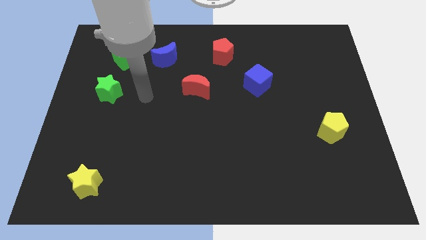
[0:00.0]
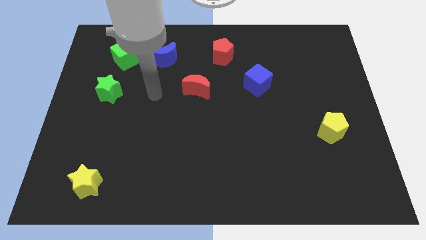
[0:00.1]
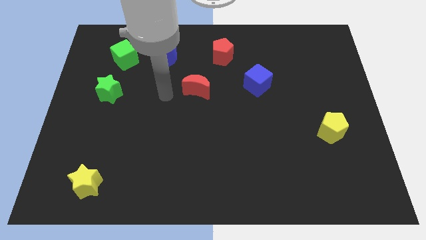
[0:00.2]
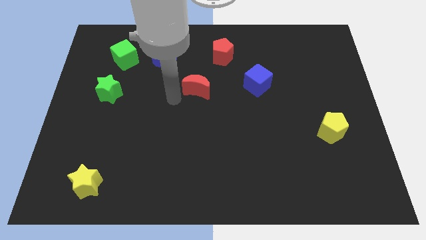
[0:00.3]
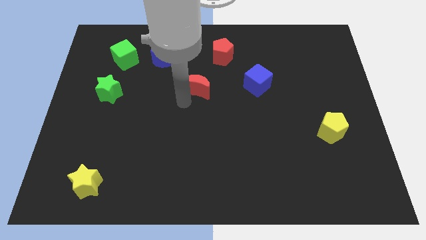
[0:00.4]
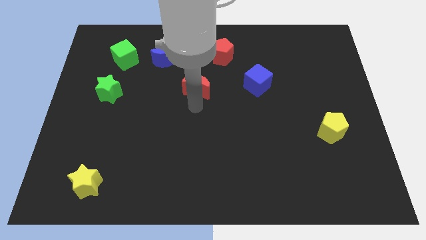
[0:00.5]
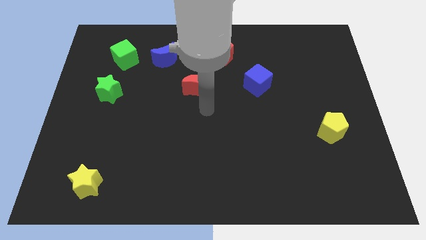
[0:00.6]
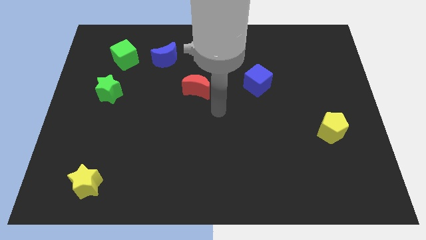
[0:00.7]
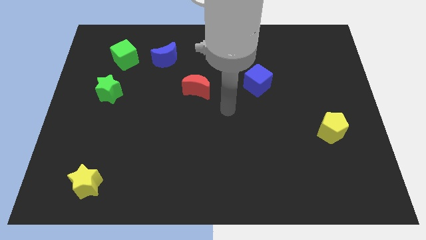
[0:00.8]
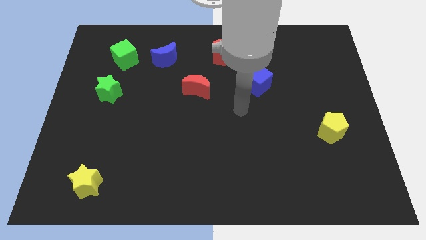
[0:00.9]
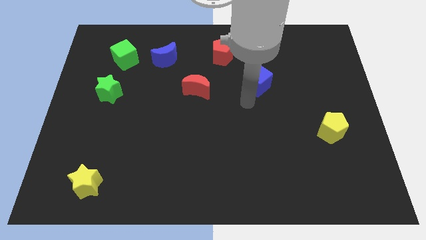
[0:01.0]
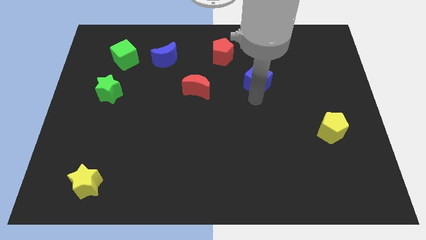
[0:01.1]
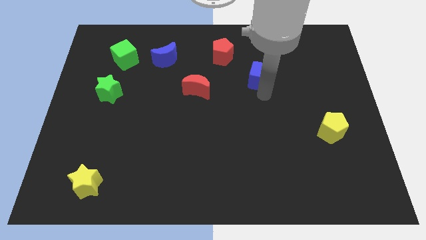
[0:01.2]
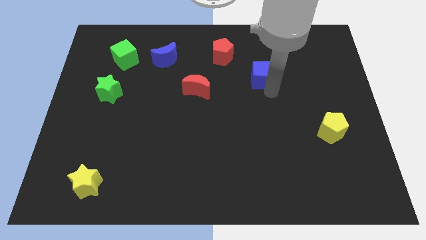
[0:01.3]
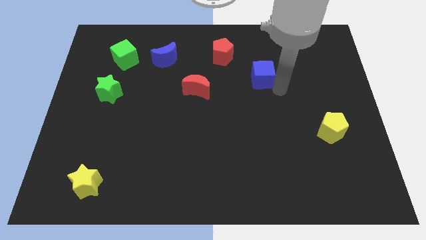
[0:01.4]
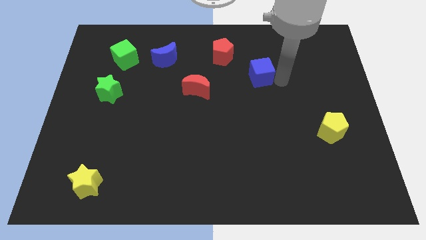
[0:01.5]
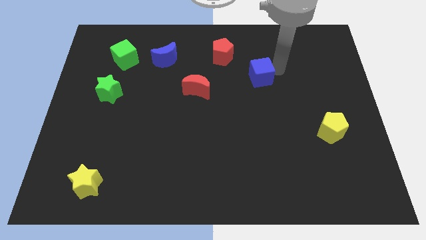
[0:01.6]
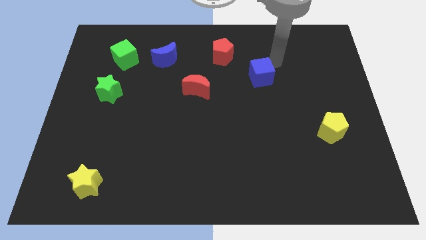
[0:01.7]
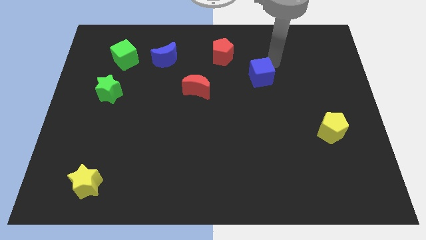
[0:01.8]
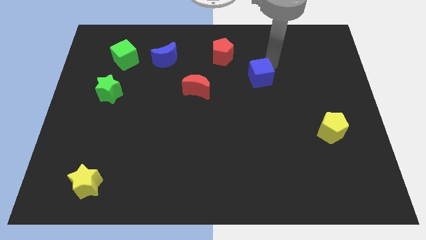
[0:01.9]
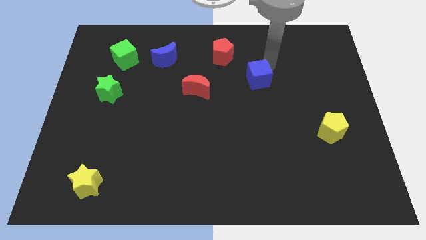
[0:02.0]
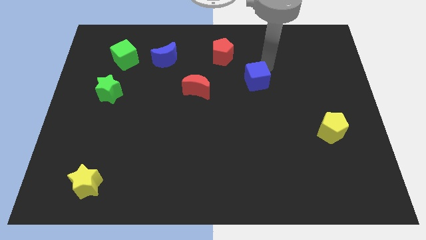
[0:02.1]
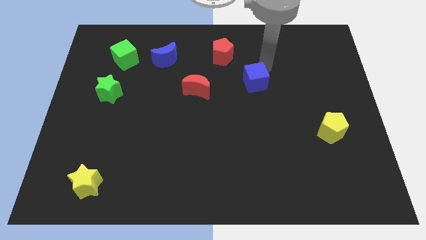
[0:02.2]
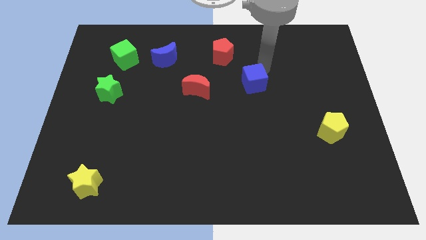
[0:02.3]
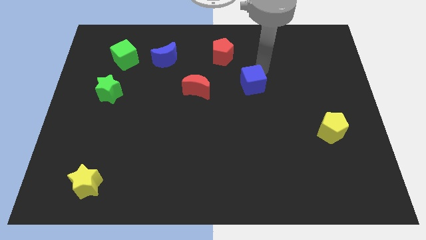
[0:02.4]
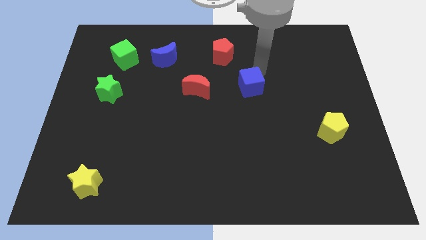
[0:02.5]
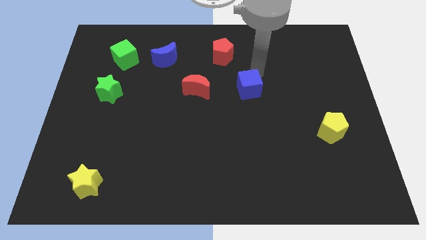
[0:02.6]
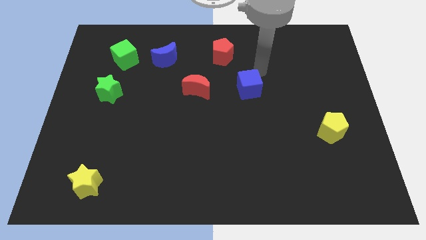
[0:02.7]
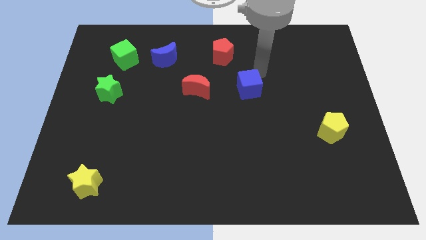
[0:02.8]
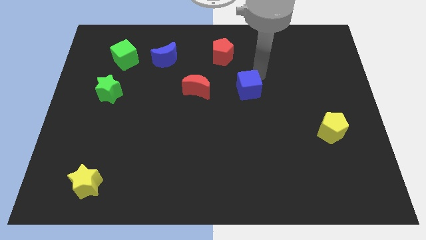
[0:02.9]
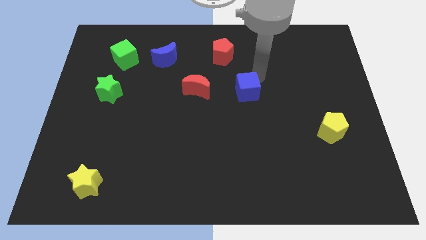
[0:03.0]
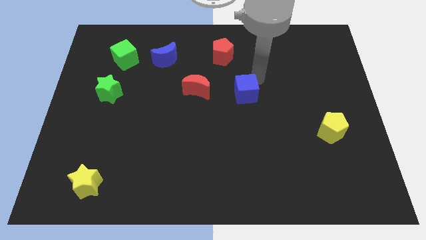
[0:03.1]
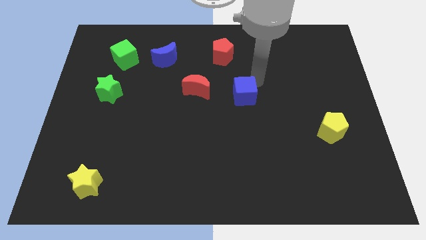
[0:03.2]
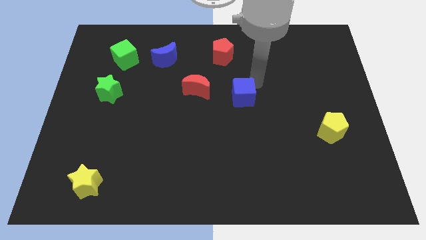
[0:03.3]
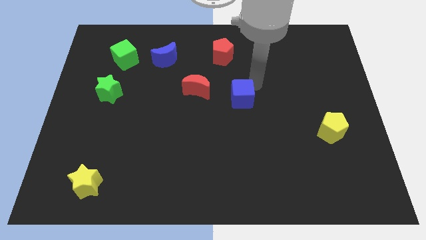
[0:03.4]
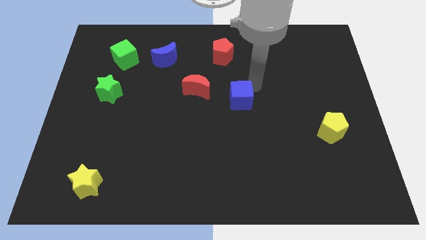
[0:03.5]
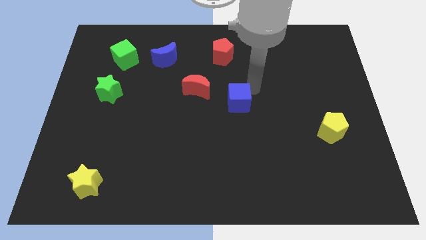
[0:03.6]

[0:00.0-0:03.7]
slightly move the blue cube downwards and left

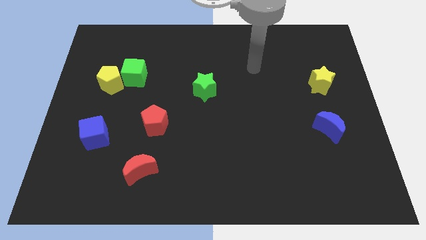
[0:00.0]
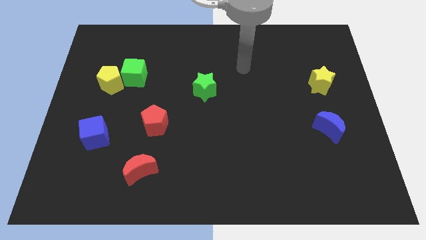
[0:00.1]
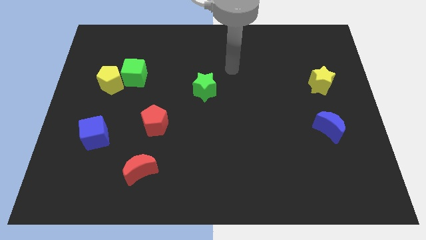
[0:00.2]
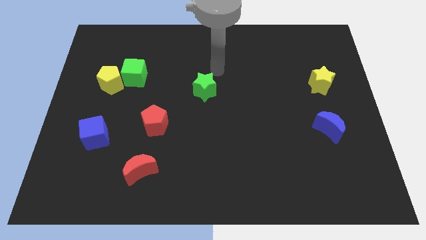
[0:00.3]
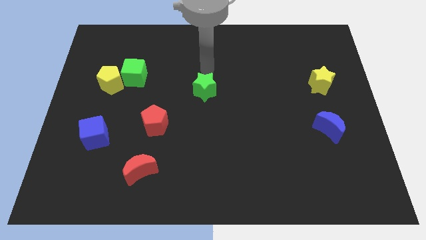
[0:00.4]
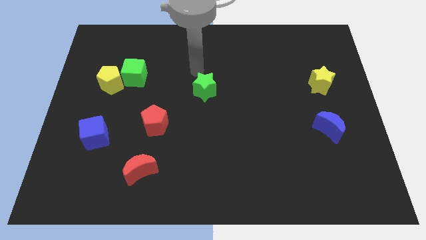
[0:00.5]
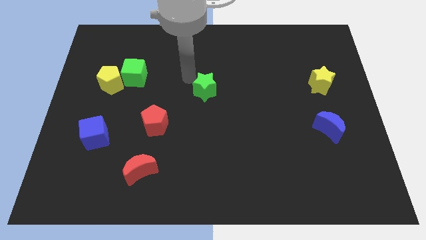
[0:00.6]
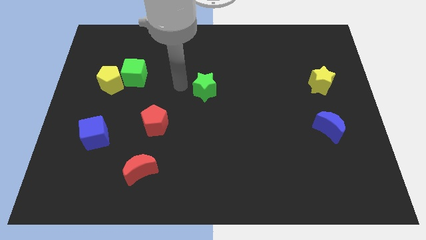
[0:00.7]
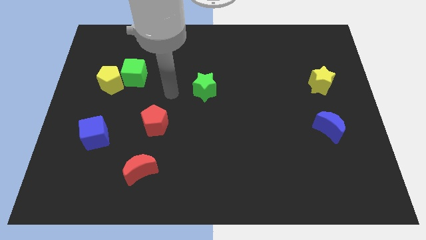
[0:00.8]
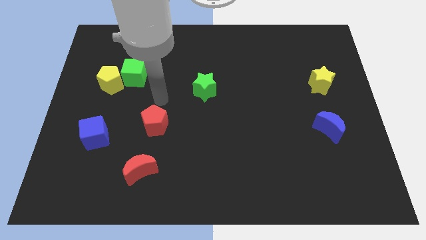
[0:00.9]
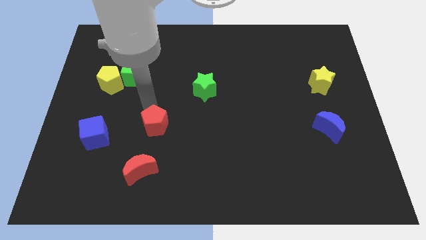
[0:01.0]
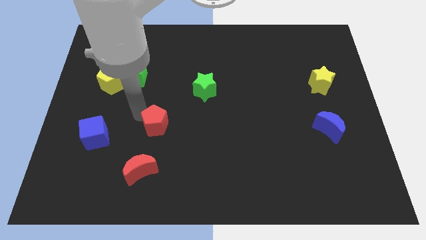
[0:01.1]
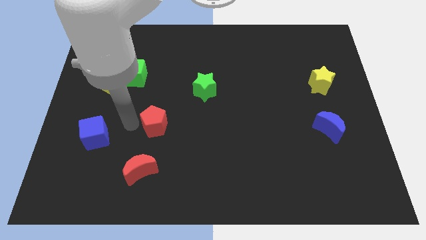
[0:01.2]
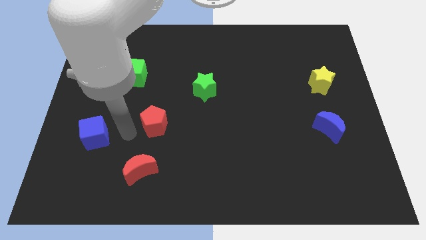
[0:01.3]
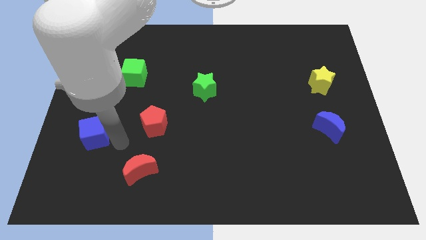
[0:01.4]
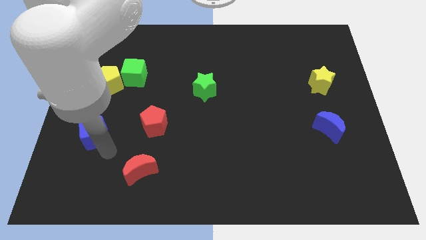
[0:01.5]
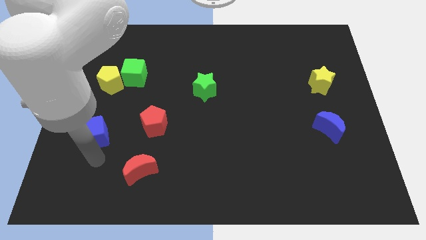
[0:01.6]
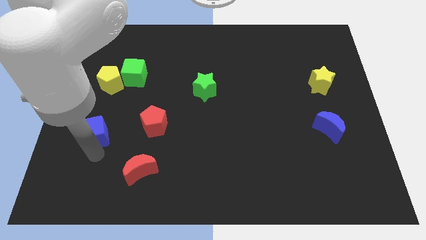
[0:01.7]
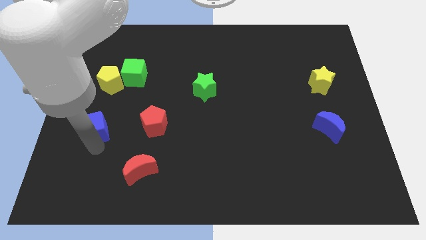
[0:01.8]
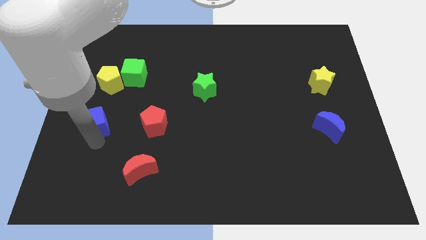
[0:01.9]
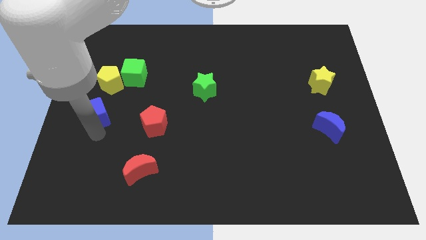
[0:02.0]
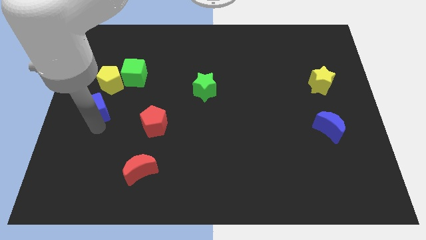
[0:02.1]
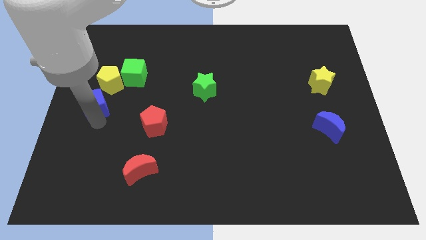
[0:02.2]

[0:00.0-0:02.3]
slide the blue cube a little bit up

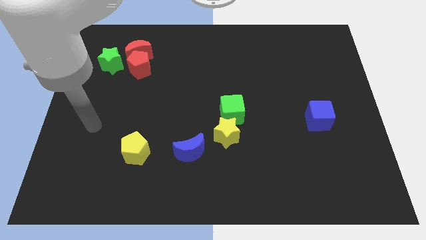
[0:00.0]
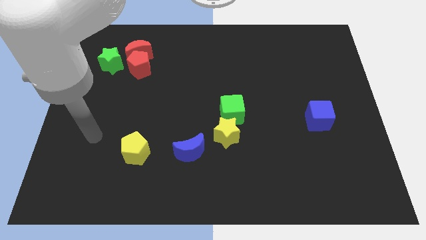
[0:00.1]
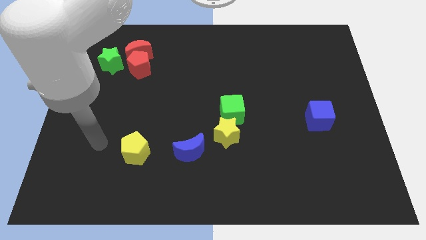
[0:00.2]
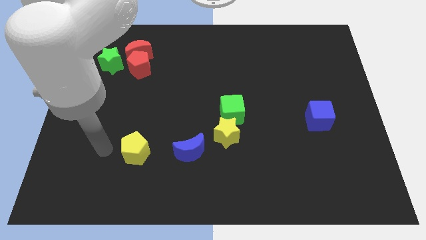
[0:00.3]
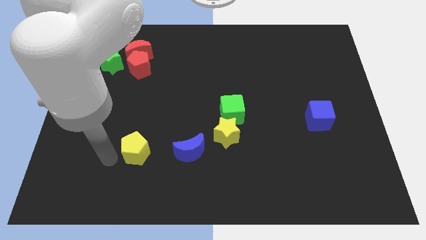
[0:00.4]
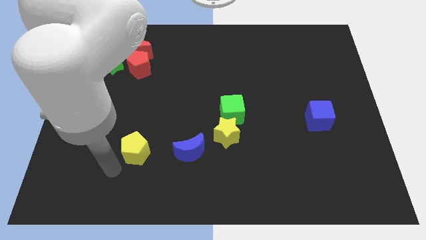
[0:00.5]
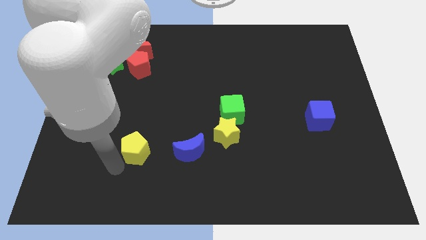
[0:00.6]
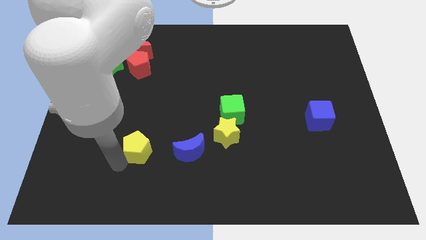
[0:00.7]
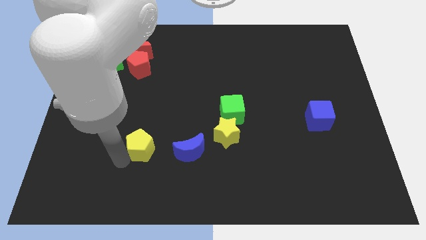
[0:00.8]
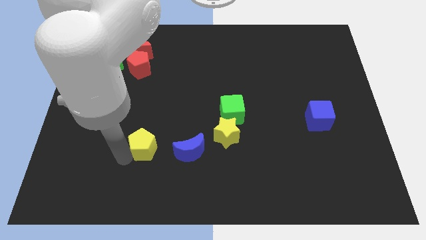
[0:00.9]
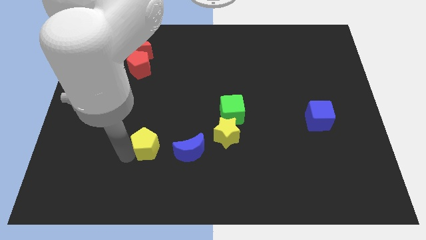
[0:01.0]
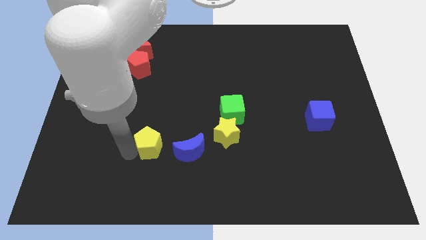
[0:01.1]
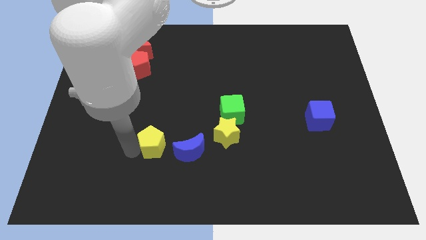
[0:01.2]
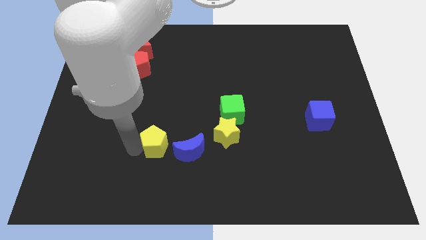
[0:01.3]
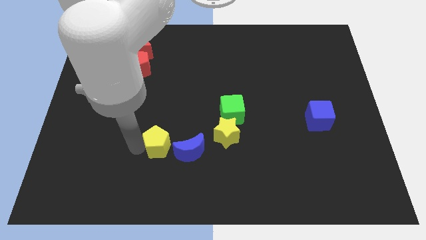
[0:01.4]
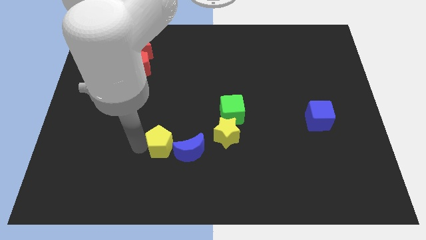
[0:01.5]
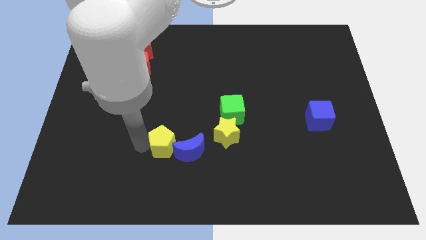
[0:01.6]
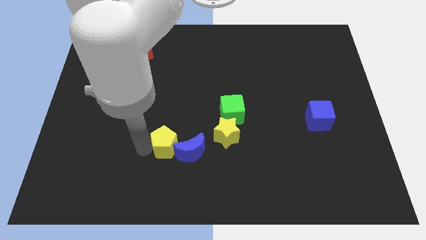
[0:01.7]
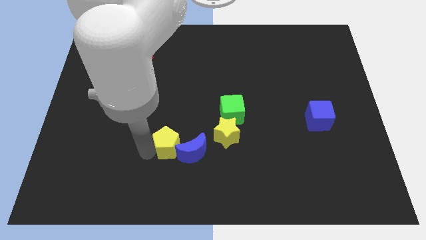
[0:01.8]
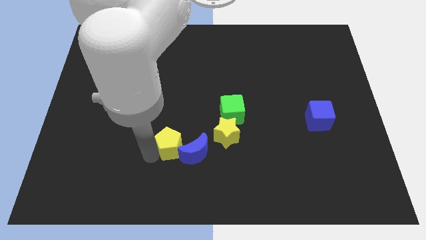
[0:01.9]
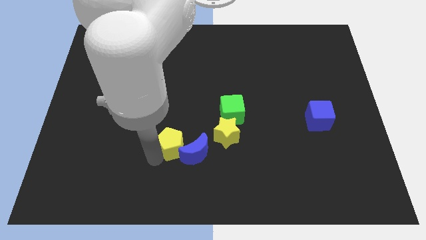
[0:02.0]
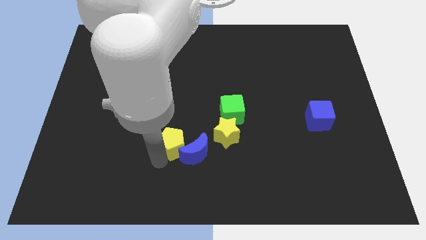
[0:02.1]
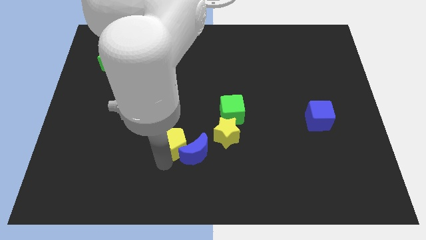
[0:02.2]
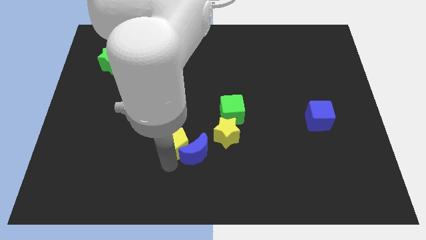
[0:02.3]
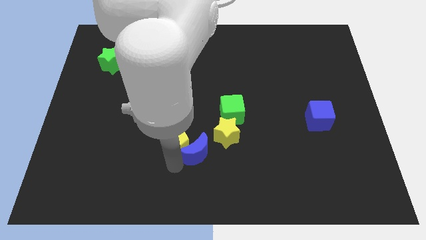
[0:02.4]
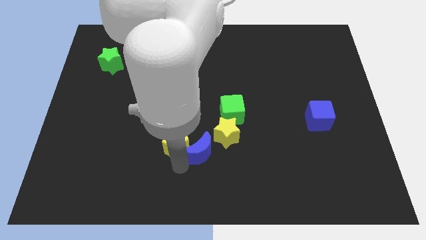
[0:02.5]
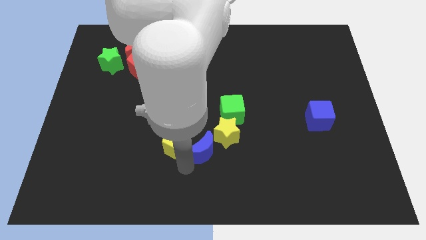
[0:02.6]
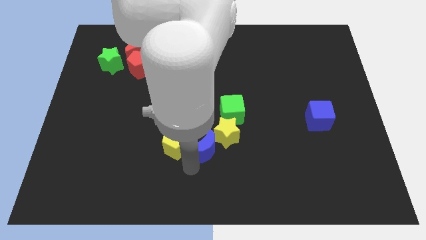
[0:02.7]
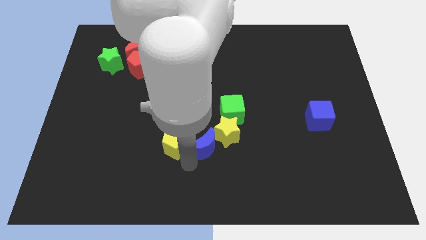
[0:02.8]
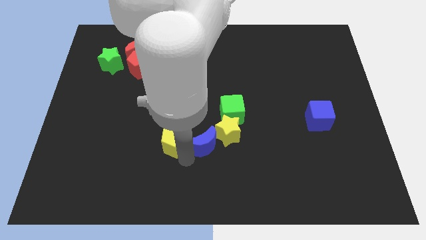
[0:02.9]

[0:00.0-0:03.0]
slightly slide the yellow pentagon up and right
